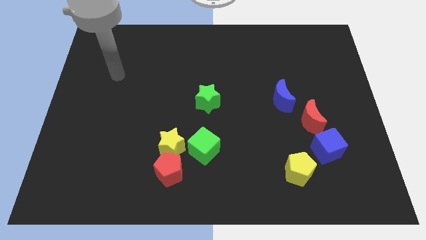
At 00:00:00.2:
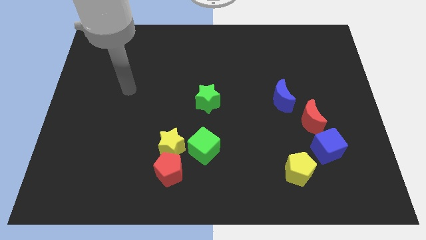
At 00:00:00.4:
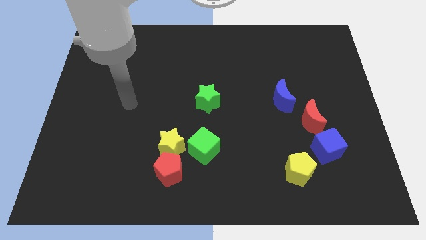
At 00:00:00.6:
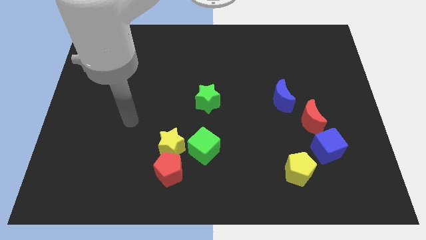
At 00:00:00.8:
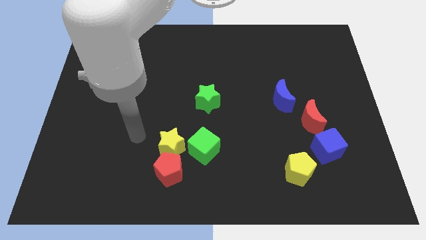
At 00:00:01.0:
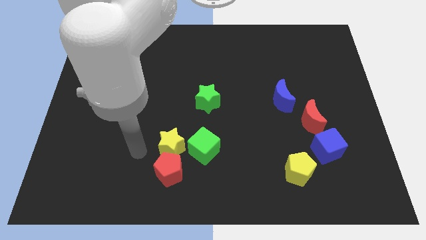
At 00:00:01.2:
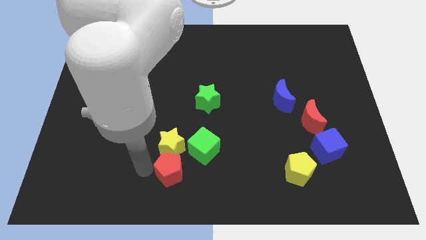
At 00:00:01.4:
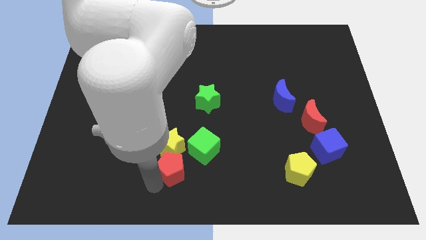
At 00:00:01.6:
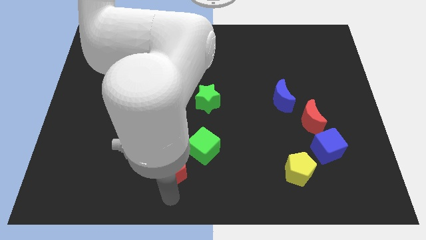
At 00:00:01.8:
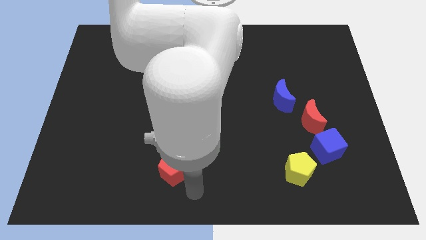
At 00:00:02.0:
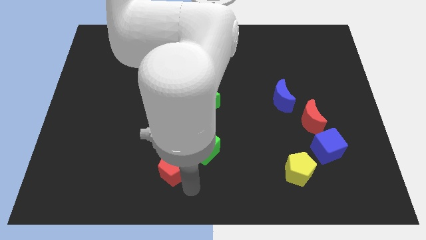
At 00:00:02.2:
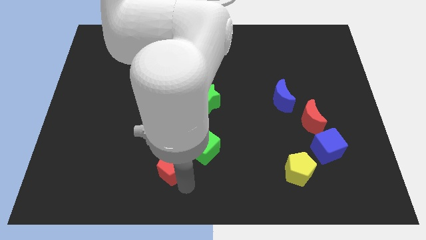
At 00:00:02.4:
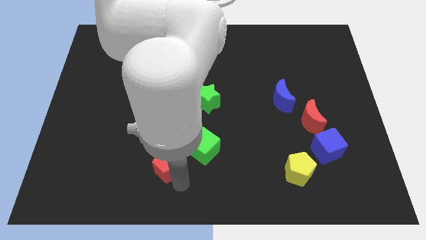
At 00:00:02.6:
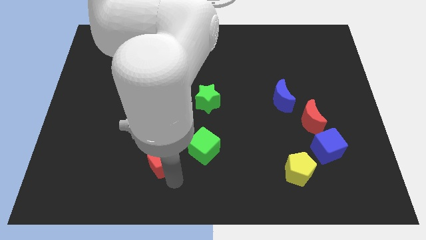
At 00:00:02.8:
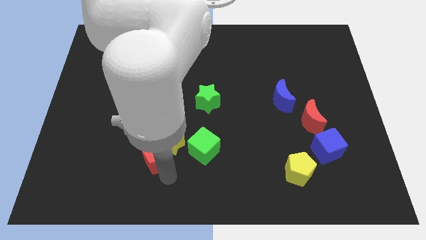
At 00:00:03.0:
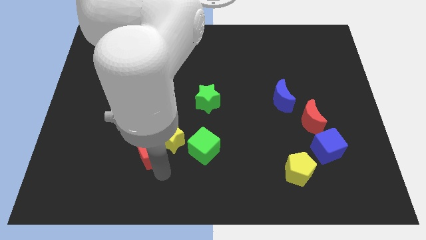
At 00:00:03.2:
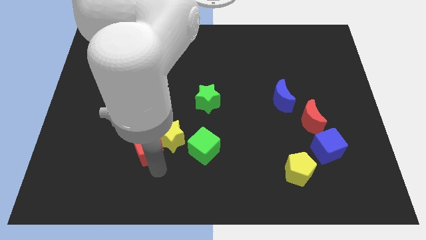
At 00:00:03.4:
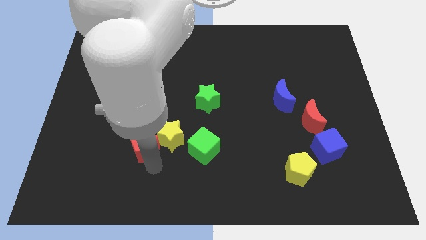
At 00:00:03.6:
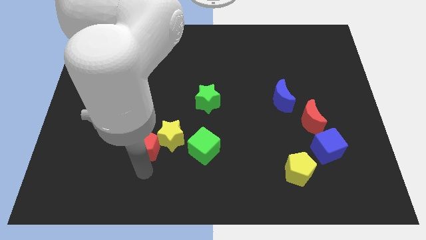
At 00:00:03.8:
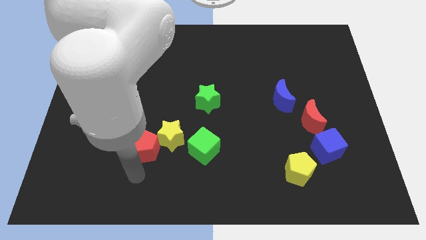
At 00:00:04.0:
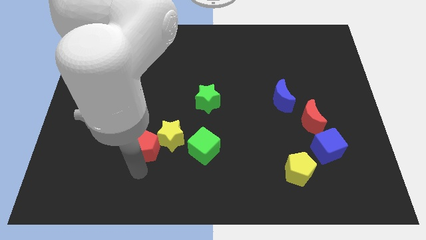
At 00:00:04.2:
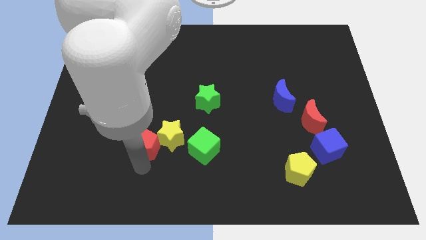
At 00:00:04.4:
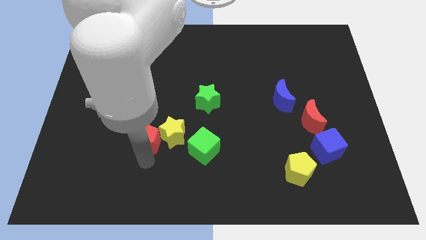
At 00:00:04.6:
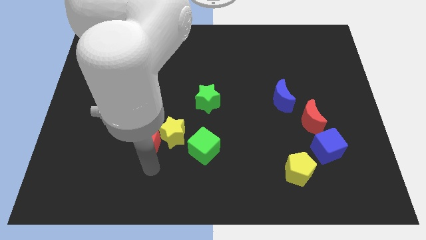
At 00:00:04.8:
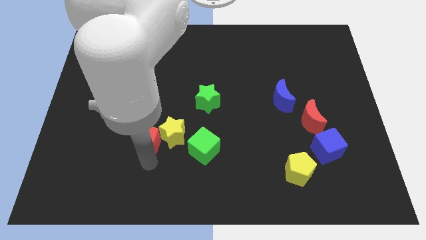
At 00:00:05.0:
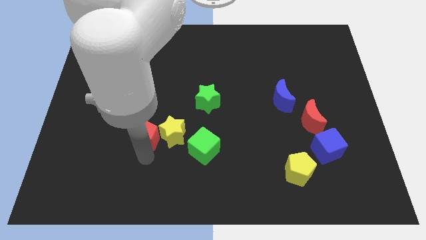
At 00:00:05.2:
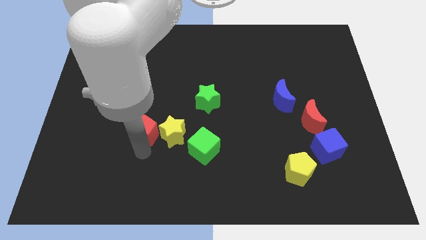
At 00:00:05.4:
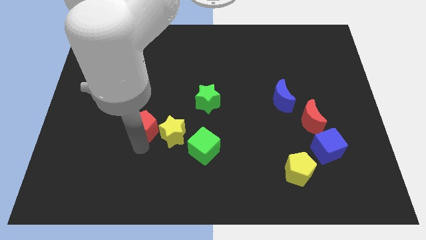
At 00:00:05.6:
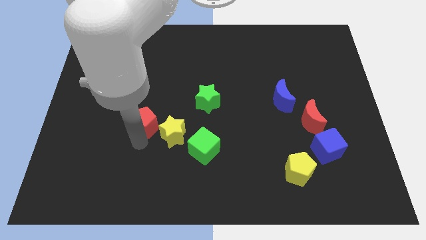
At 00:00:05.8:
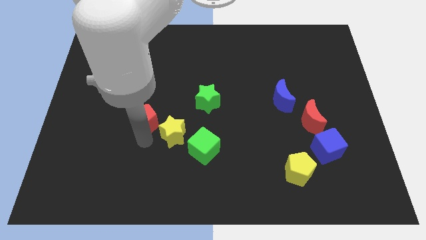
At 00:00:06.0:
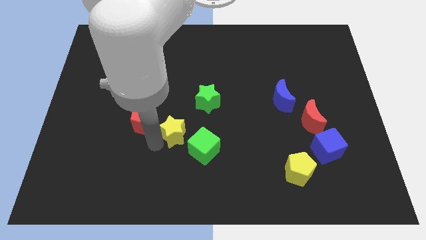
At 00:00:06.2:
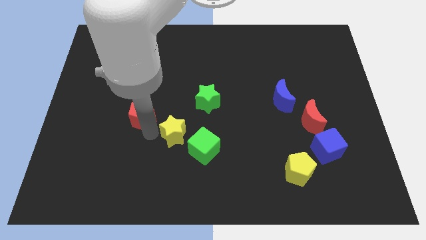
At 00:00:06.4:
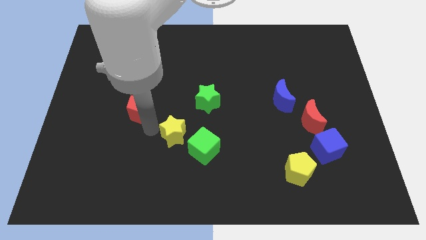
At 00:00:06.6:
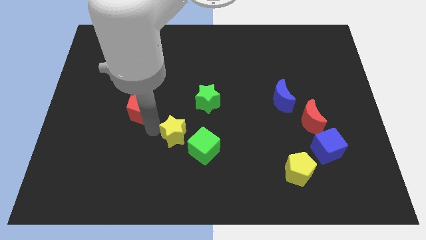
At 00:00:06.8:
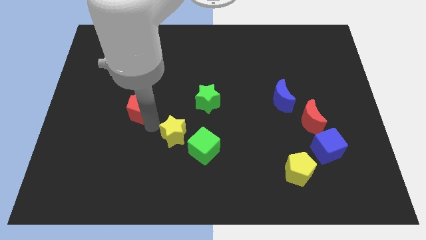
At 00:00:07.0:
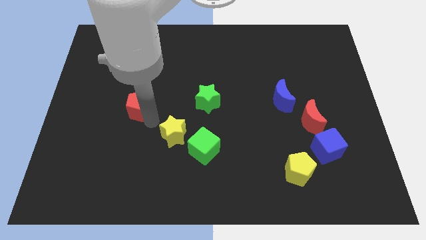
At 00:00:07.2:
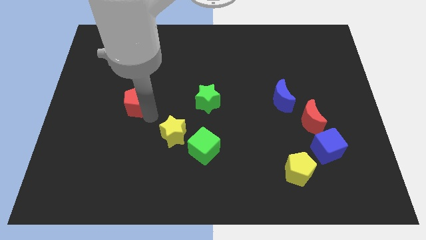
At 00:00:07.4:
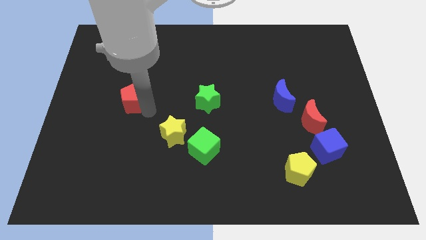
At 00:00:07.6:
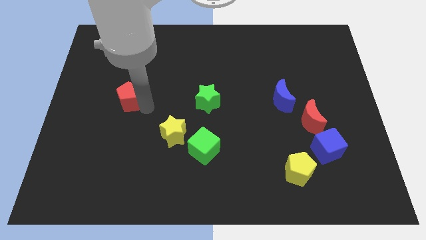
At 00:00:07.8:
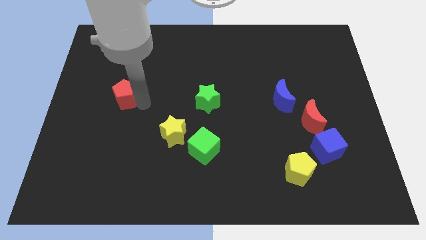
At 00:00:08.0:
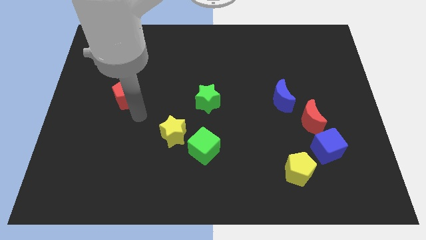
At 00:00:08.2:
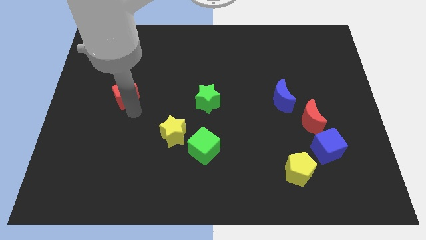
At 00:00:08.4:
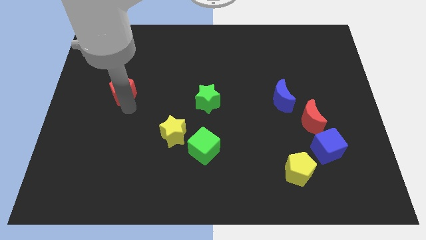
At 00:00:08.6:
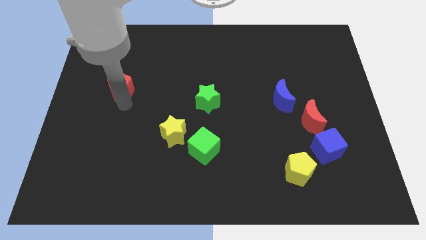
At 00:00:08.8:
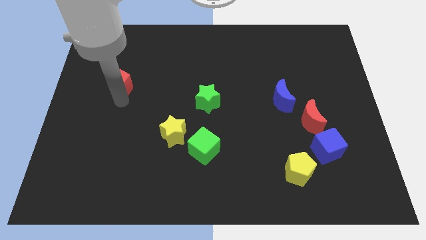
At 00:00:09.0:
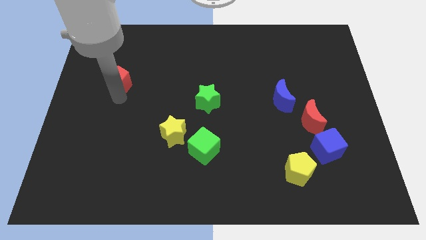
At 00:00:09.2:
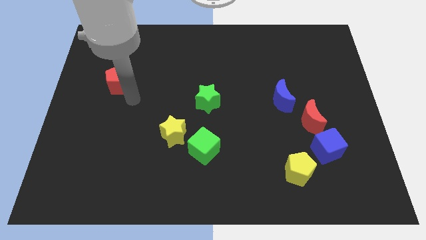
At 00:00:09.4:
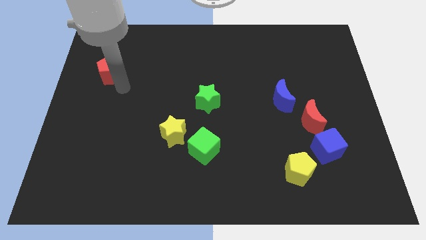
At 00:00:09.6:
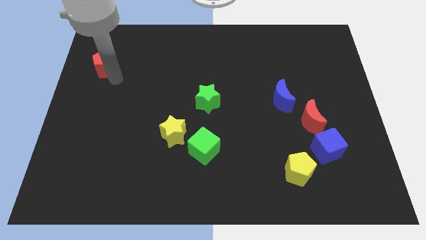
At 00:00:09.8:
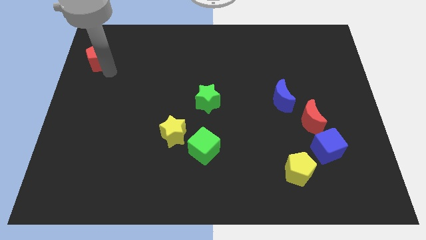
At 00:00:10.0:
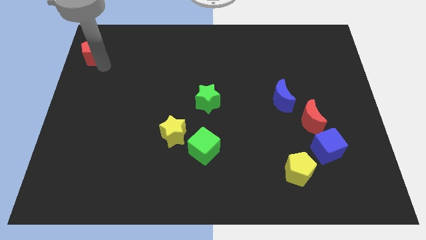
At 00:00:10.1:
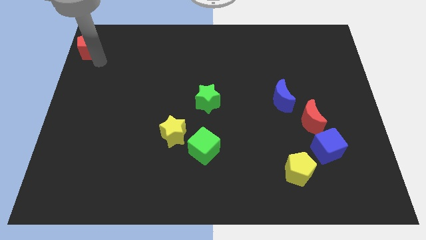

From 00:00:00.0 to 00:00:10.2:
put the red pentagon to the top left corner
